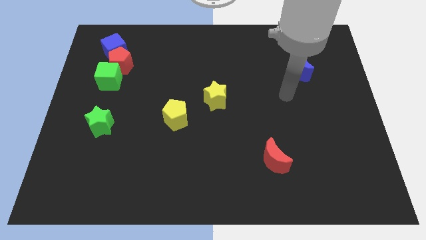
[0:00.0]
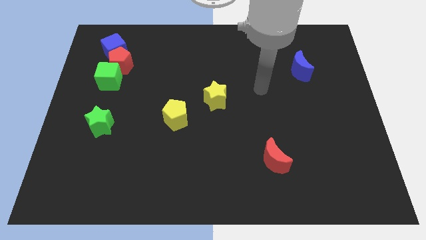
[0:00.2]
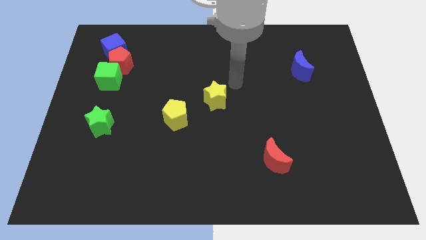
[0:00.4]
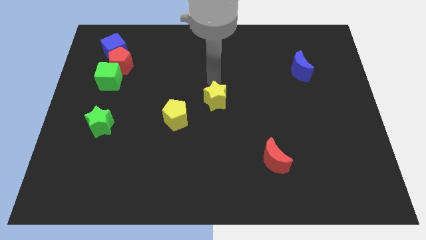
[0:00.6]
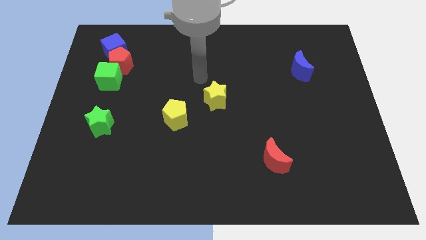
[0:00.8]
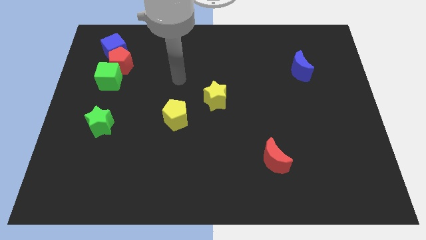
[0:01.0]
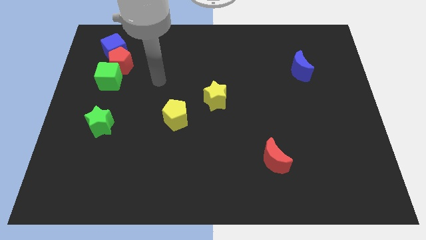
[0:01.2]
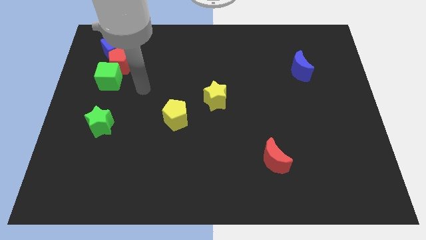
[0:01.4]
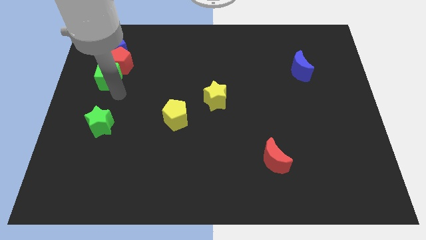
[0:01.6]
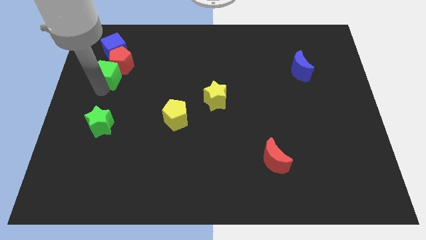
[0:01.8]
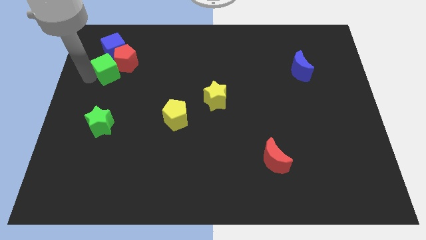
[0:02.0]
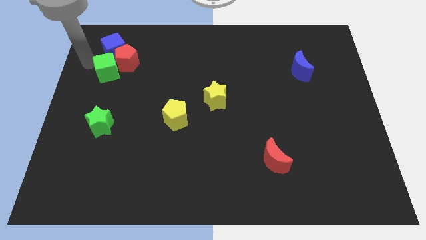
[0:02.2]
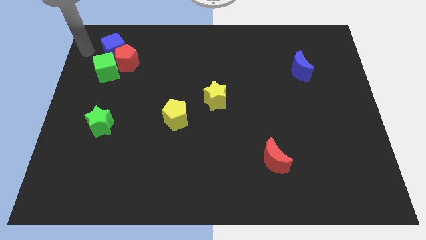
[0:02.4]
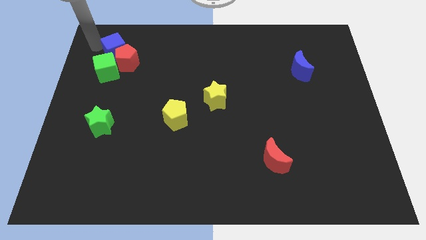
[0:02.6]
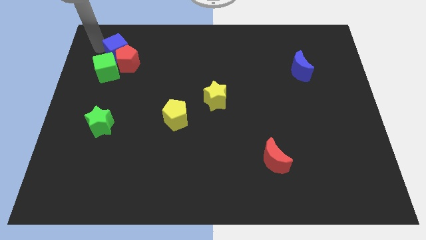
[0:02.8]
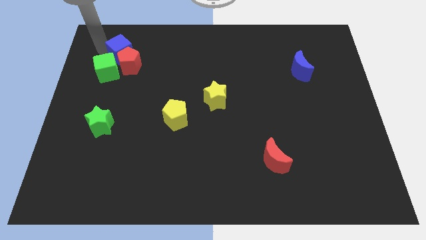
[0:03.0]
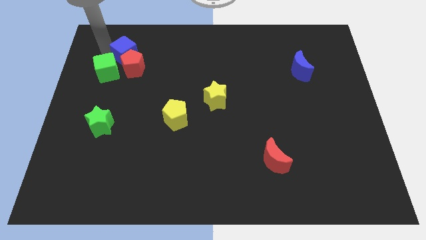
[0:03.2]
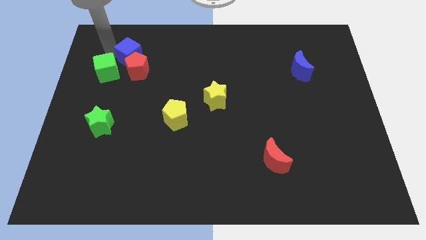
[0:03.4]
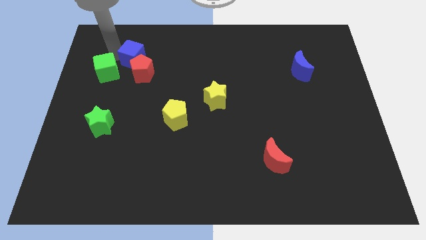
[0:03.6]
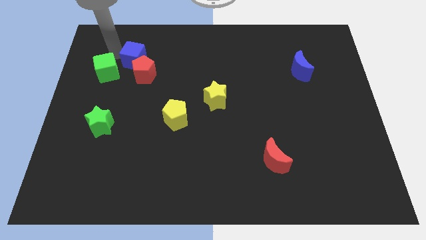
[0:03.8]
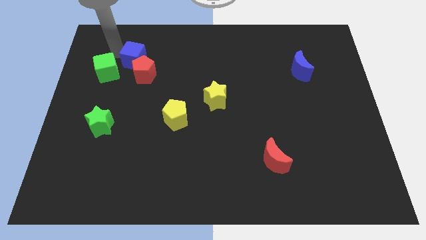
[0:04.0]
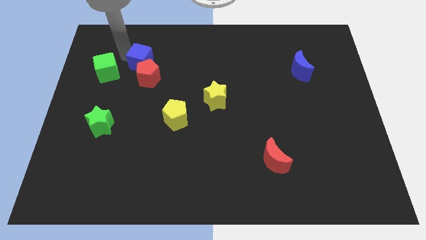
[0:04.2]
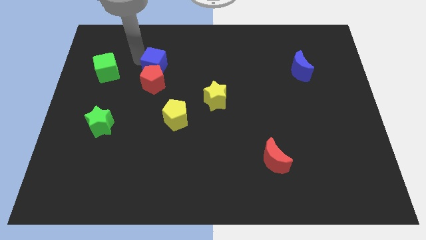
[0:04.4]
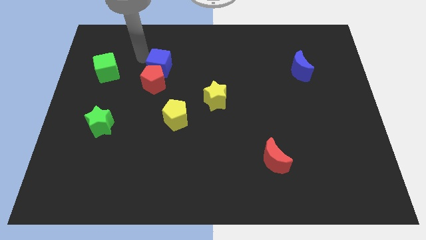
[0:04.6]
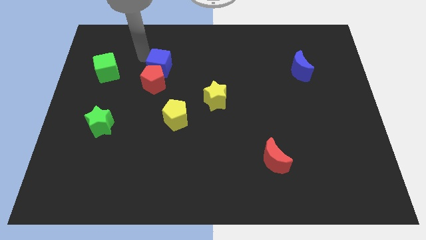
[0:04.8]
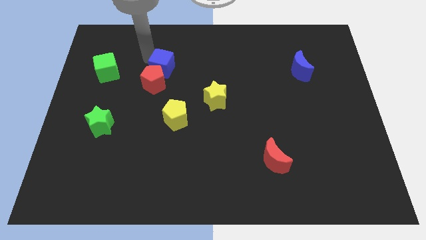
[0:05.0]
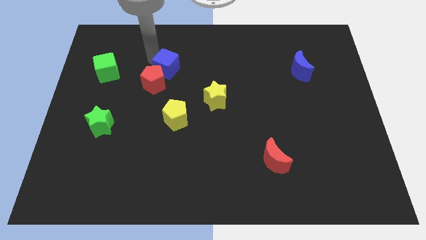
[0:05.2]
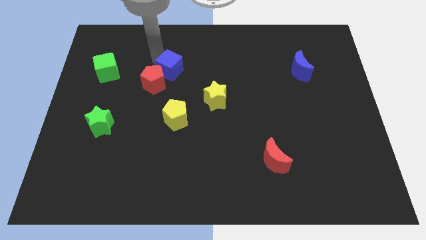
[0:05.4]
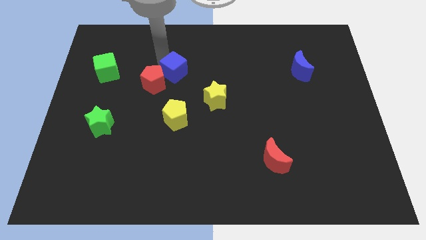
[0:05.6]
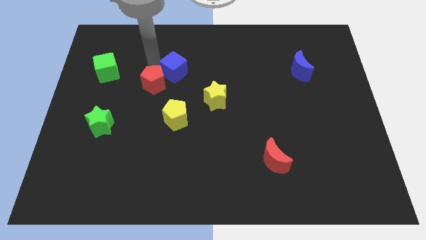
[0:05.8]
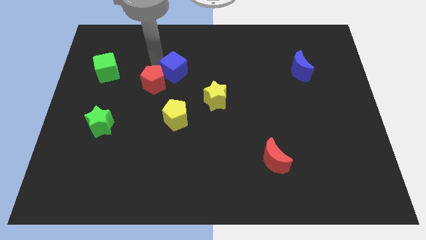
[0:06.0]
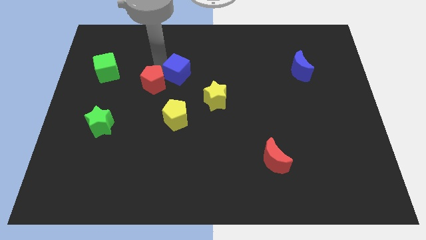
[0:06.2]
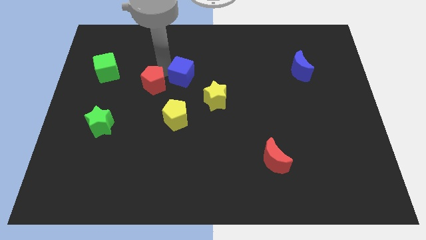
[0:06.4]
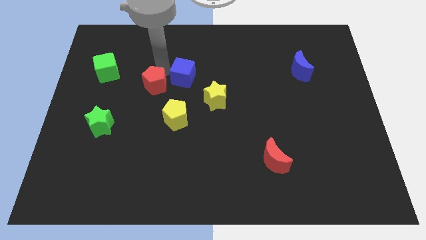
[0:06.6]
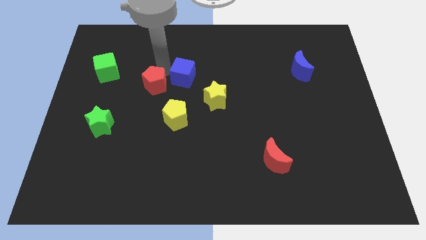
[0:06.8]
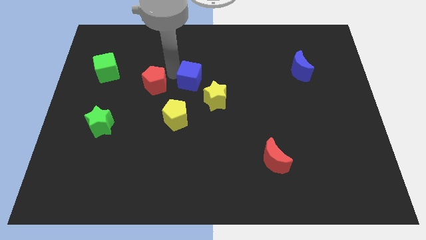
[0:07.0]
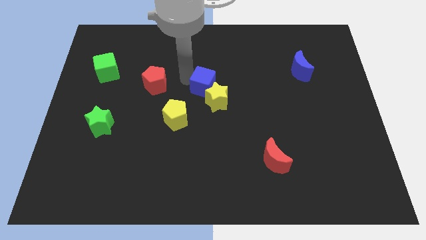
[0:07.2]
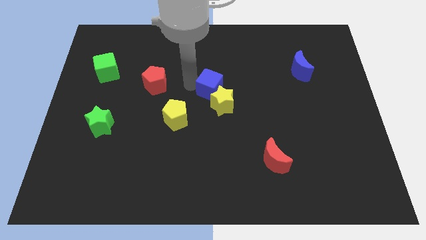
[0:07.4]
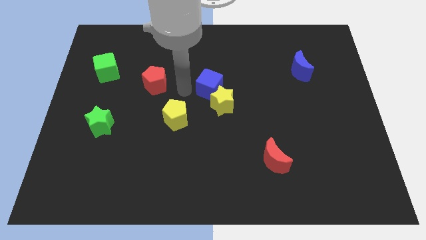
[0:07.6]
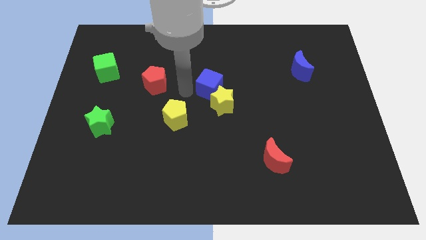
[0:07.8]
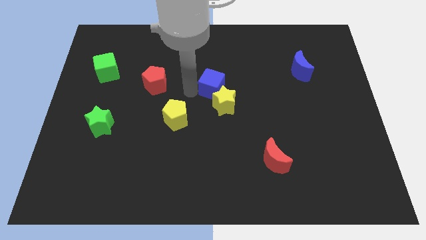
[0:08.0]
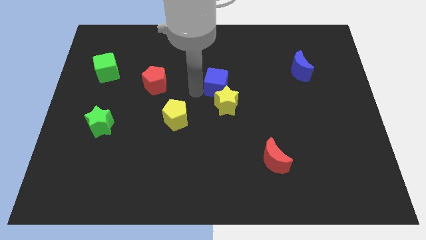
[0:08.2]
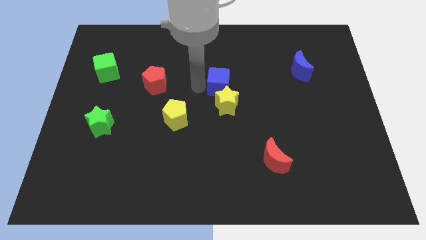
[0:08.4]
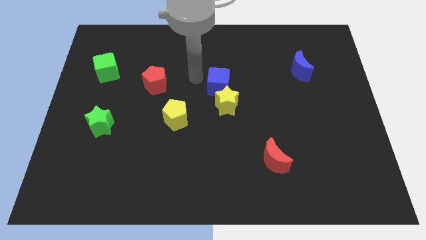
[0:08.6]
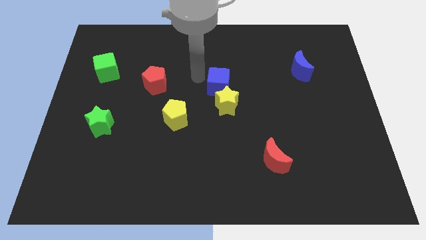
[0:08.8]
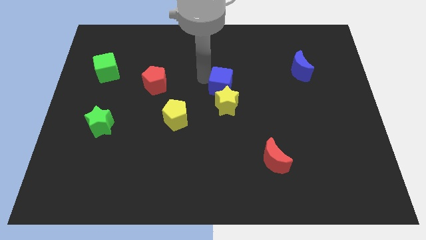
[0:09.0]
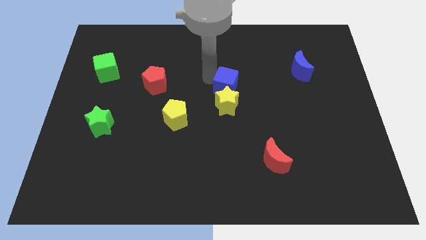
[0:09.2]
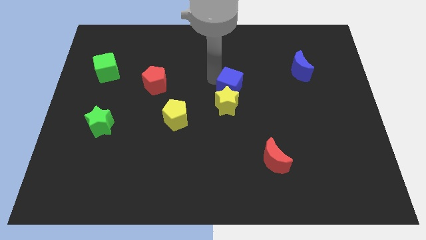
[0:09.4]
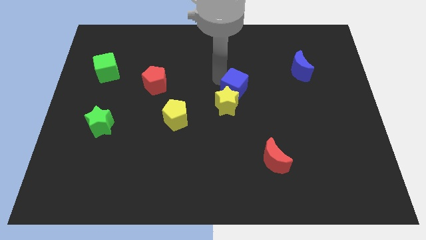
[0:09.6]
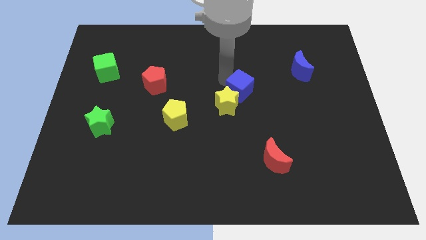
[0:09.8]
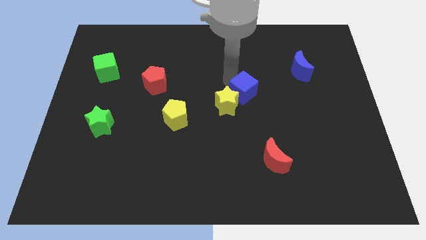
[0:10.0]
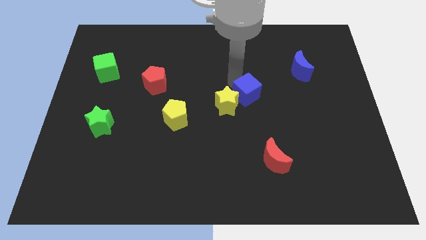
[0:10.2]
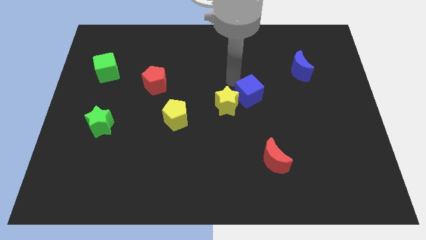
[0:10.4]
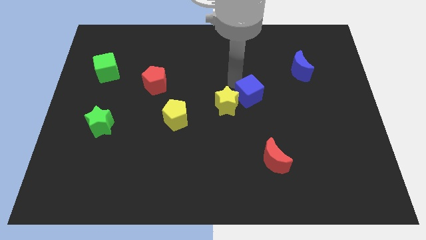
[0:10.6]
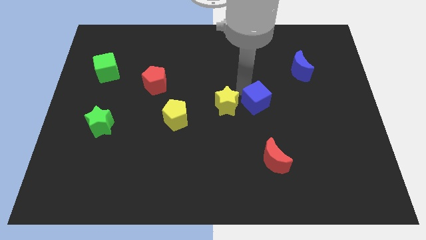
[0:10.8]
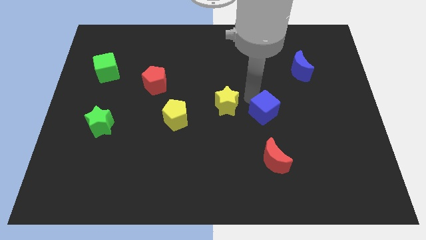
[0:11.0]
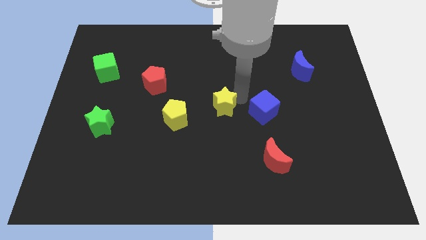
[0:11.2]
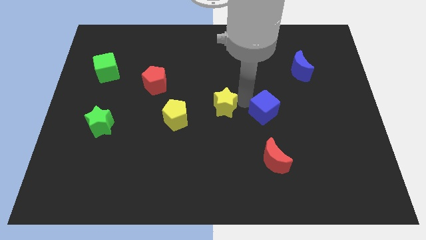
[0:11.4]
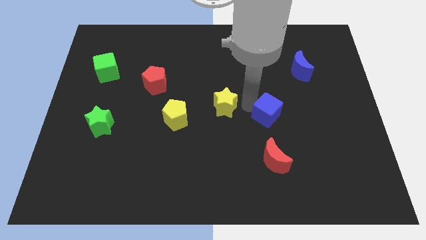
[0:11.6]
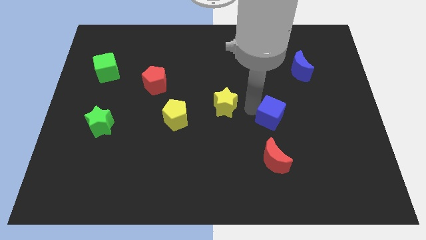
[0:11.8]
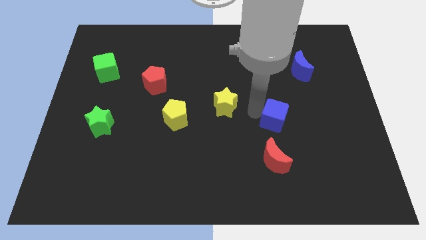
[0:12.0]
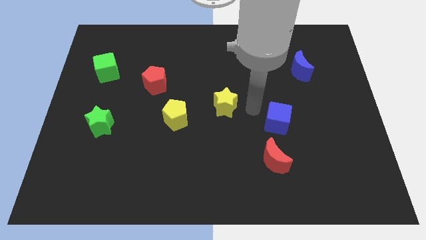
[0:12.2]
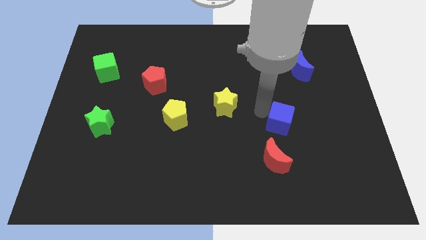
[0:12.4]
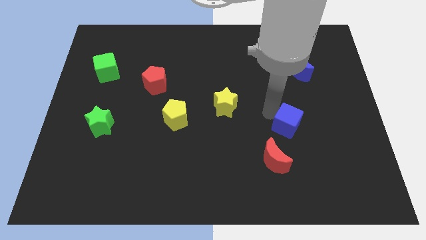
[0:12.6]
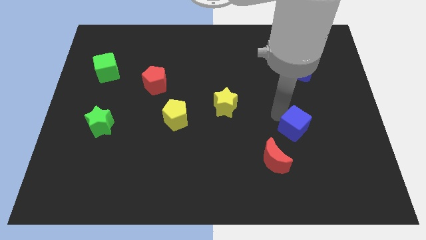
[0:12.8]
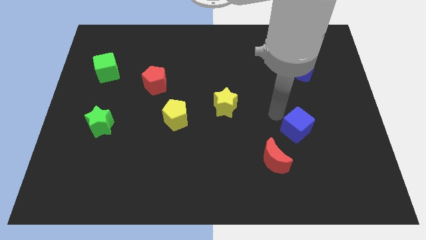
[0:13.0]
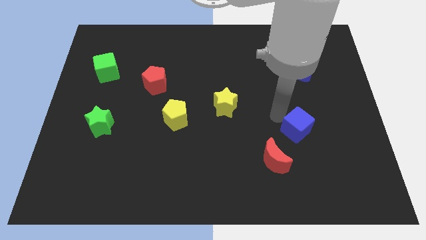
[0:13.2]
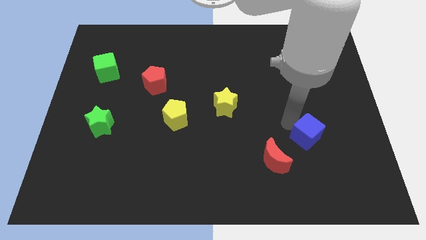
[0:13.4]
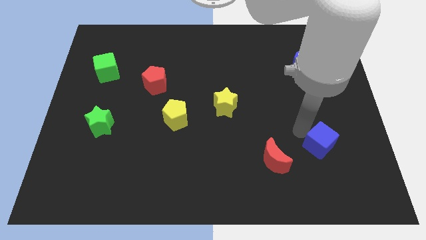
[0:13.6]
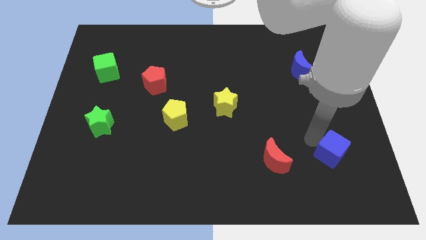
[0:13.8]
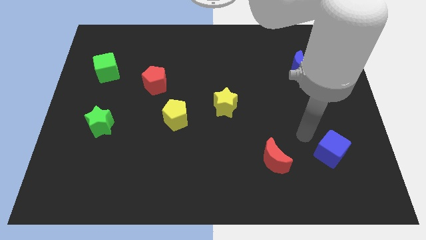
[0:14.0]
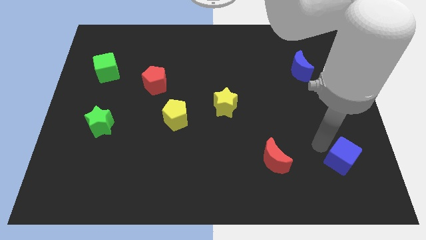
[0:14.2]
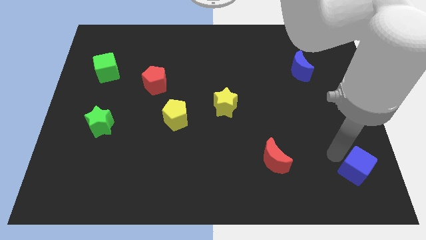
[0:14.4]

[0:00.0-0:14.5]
move the blue cube to the lower right corner
